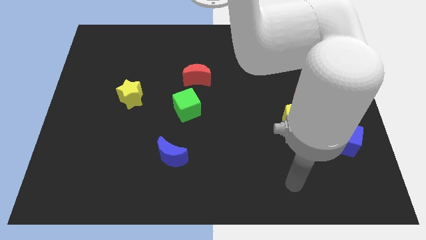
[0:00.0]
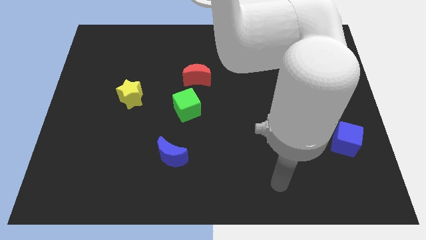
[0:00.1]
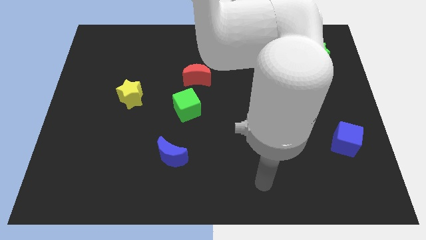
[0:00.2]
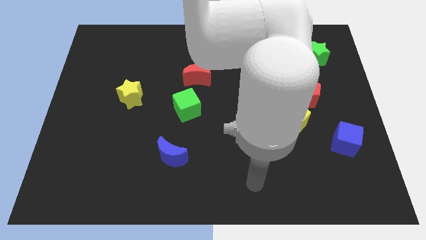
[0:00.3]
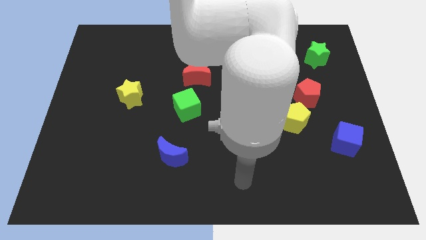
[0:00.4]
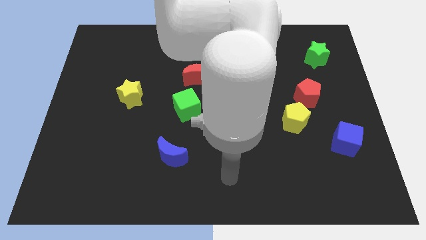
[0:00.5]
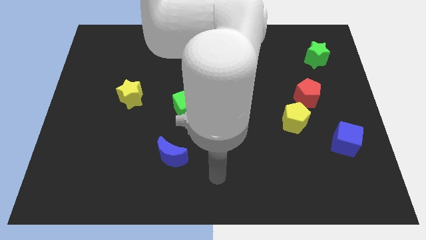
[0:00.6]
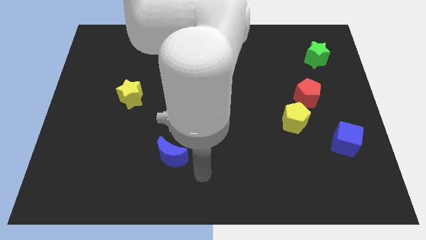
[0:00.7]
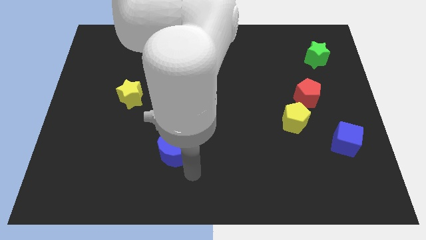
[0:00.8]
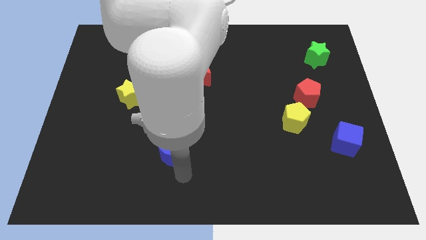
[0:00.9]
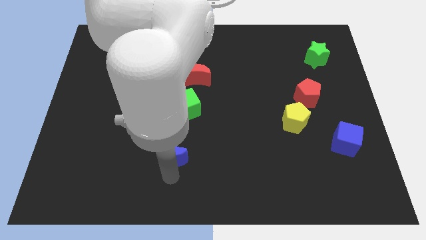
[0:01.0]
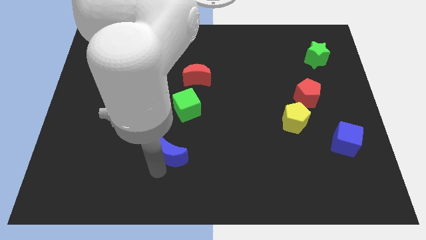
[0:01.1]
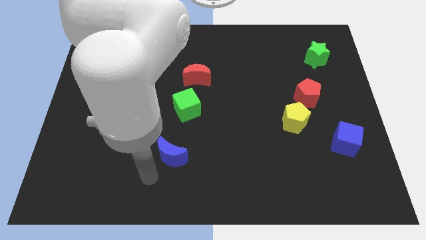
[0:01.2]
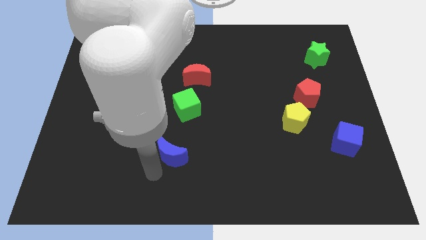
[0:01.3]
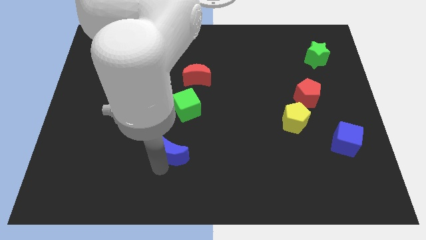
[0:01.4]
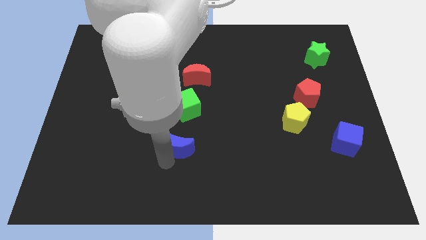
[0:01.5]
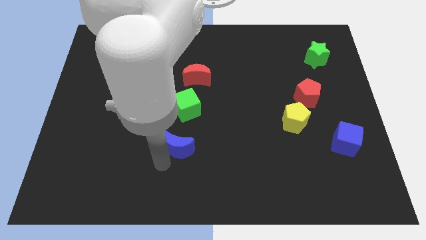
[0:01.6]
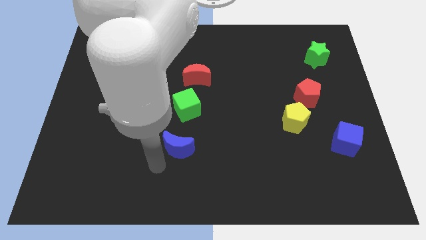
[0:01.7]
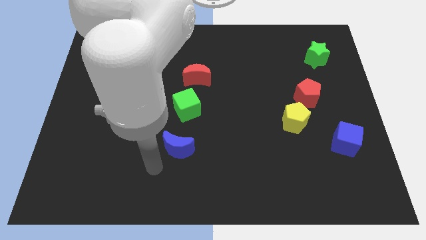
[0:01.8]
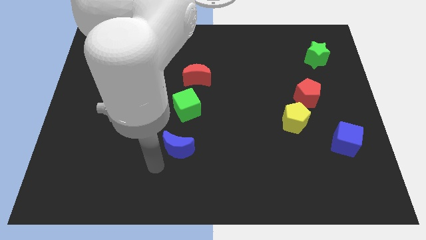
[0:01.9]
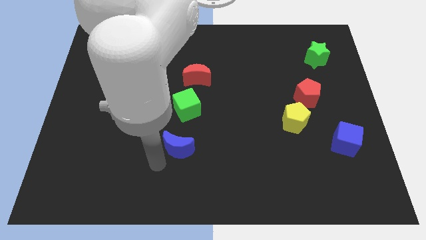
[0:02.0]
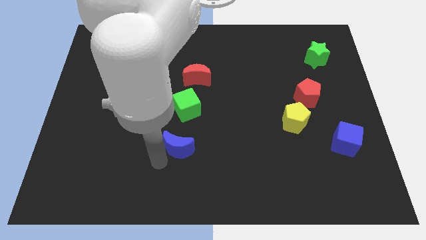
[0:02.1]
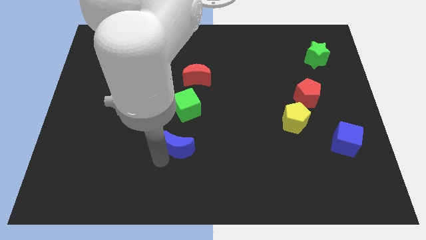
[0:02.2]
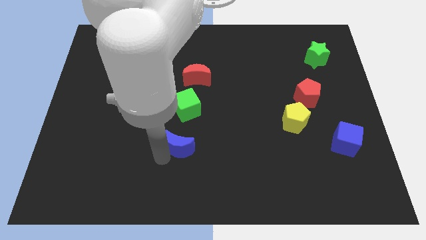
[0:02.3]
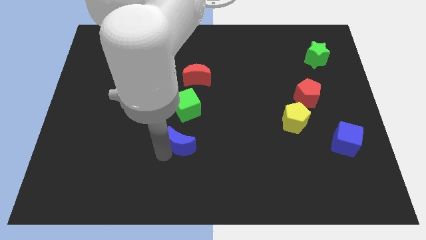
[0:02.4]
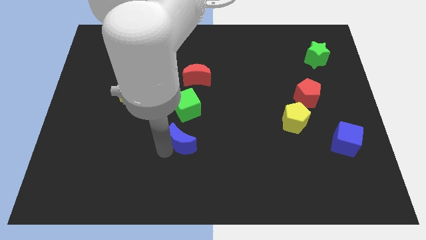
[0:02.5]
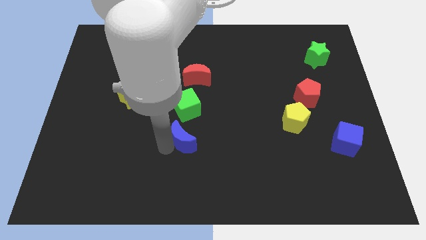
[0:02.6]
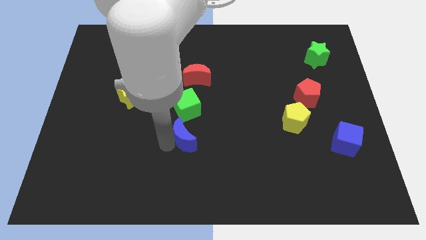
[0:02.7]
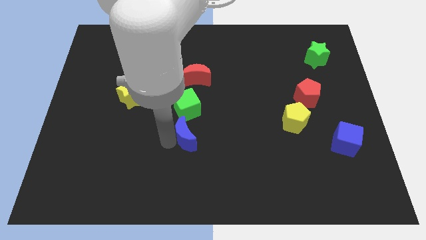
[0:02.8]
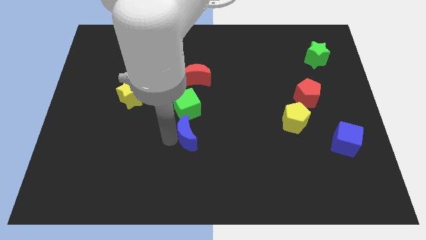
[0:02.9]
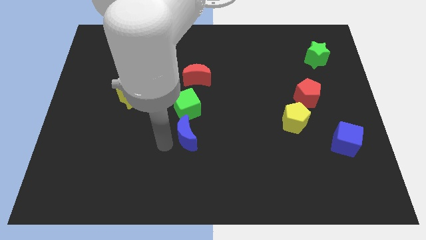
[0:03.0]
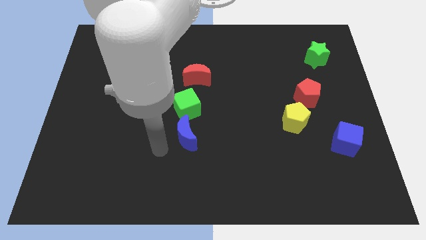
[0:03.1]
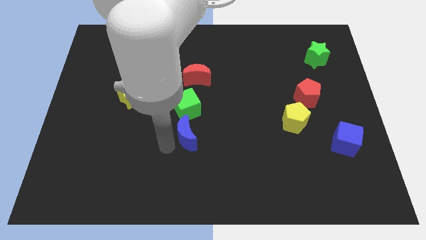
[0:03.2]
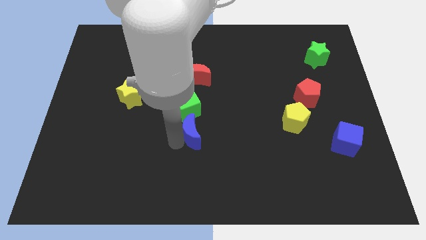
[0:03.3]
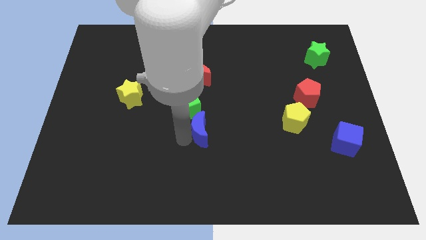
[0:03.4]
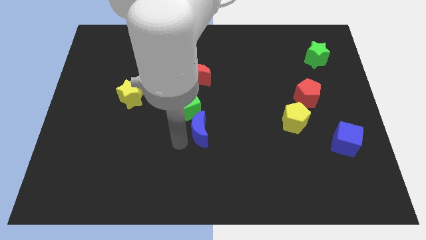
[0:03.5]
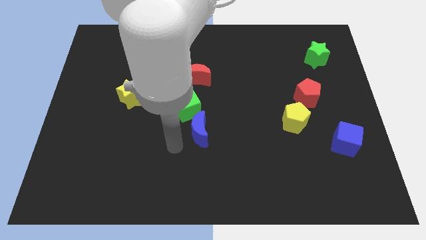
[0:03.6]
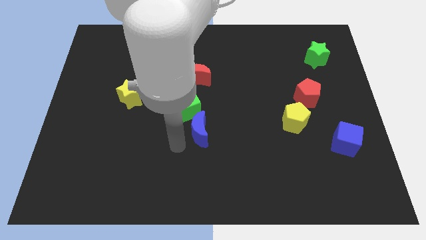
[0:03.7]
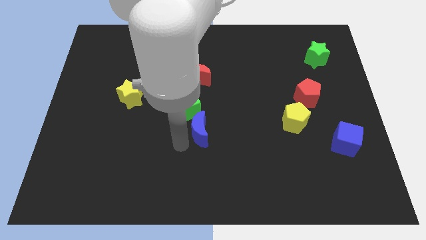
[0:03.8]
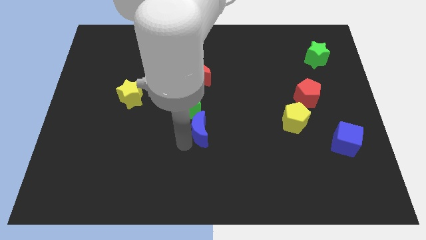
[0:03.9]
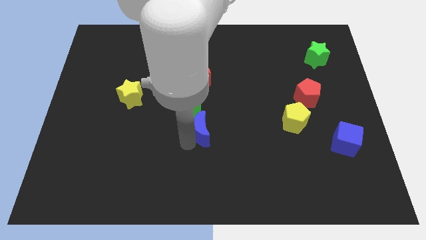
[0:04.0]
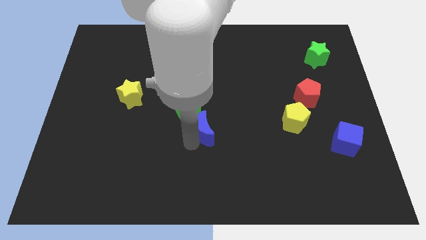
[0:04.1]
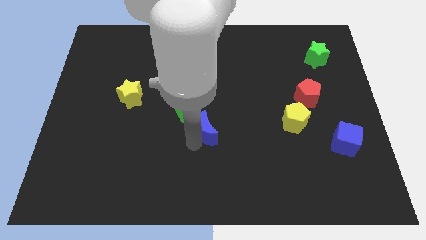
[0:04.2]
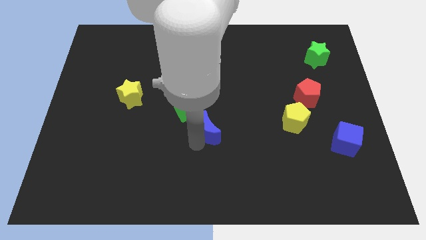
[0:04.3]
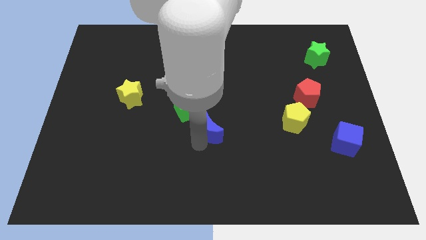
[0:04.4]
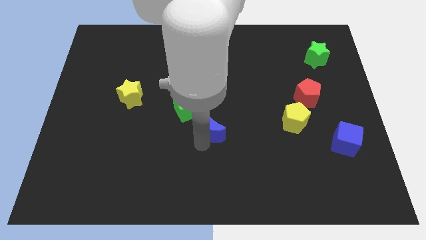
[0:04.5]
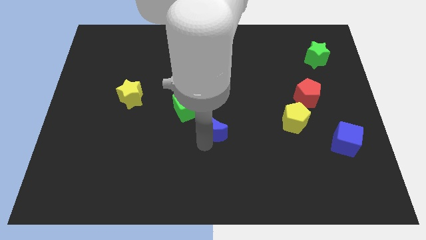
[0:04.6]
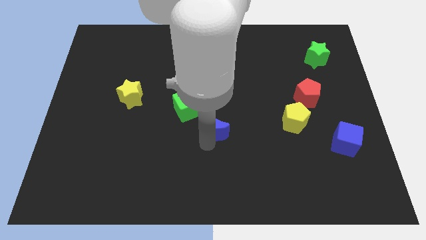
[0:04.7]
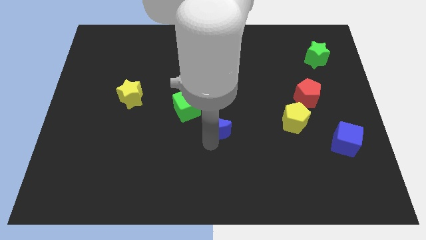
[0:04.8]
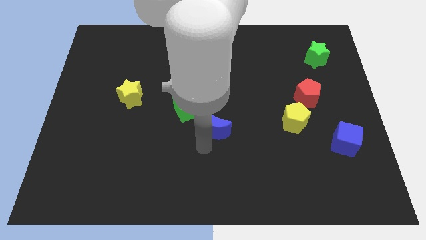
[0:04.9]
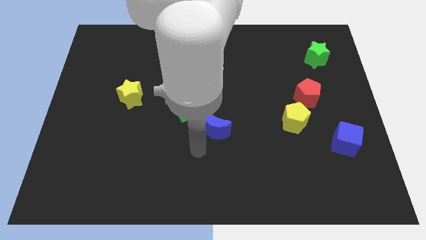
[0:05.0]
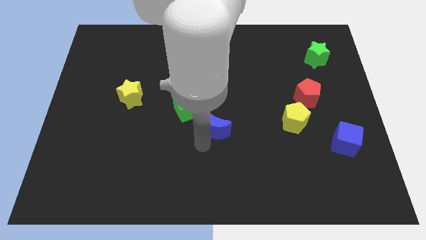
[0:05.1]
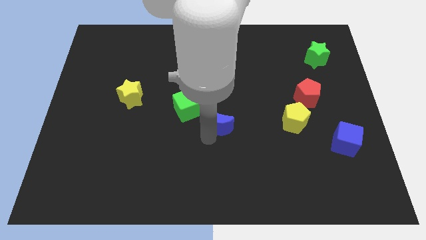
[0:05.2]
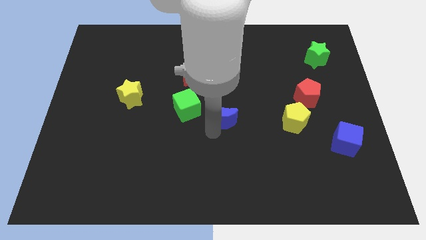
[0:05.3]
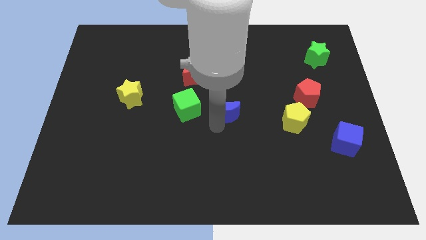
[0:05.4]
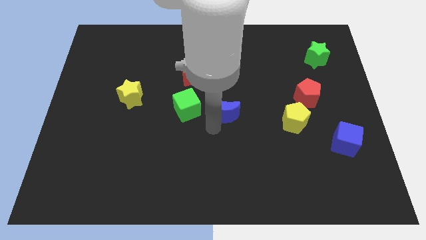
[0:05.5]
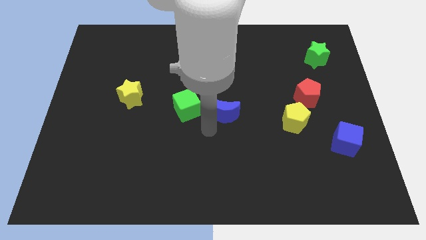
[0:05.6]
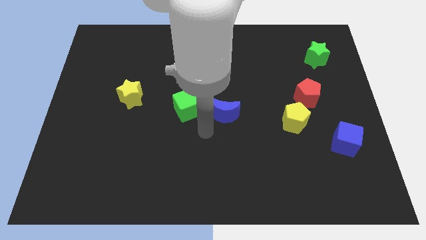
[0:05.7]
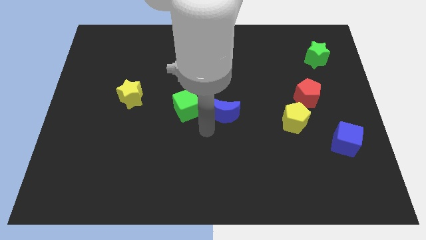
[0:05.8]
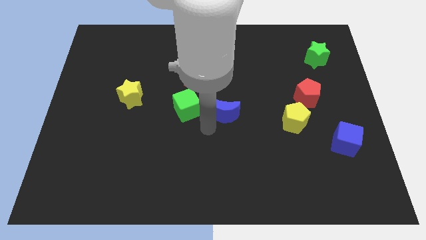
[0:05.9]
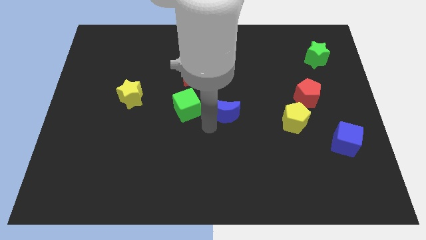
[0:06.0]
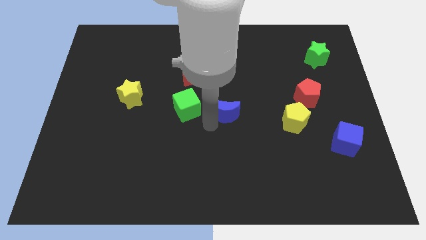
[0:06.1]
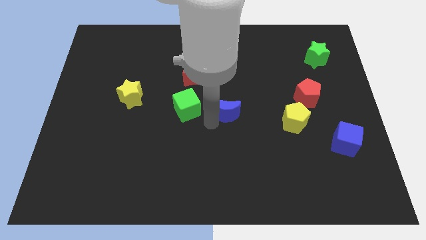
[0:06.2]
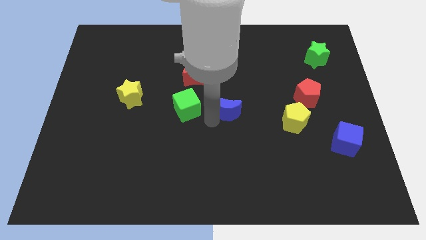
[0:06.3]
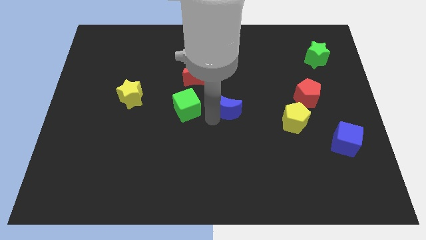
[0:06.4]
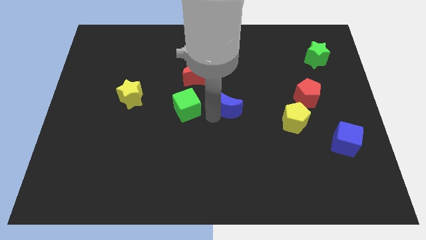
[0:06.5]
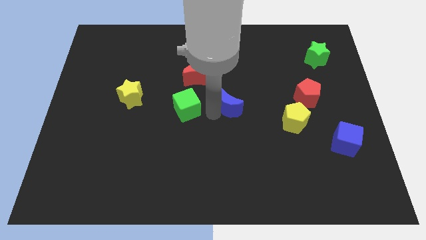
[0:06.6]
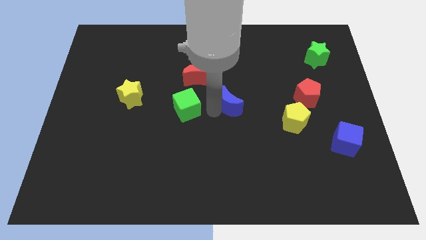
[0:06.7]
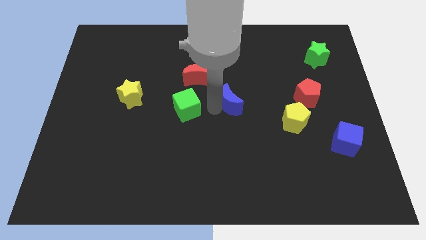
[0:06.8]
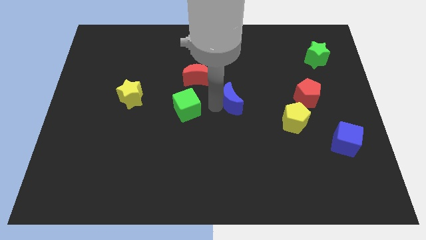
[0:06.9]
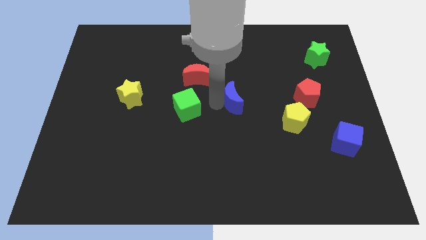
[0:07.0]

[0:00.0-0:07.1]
push the blue moon upwards and then to the right

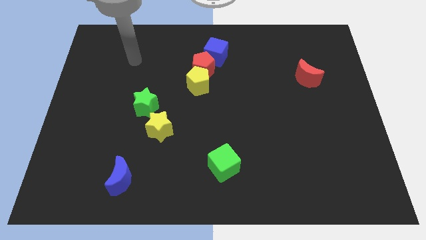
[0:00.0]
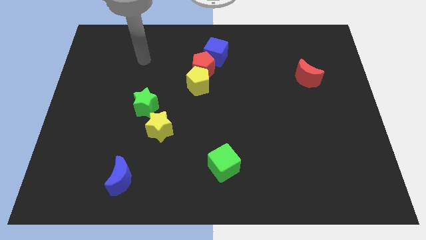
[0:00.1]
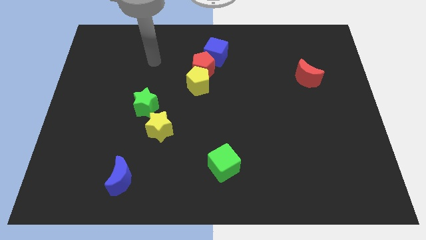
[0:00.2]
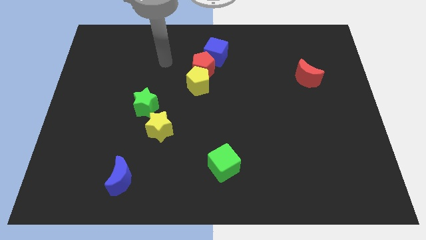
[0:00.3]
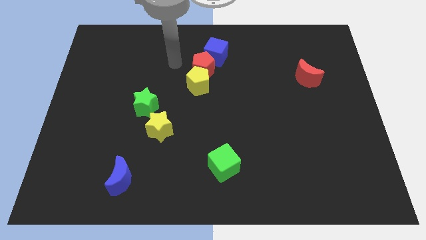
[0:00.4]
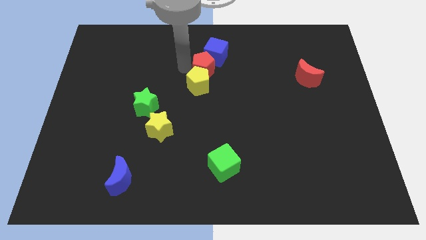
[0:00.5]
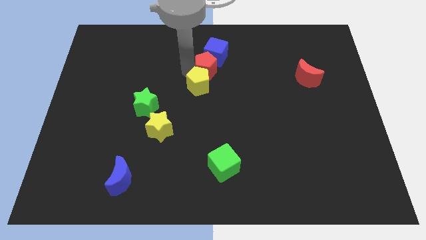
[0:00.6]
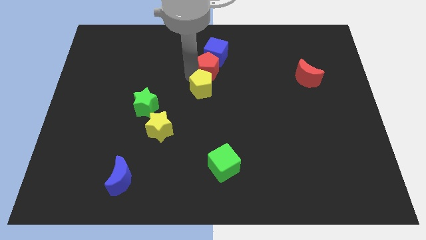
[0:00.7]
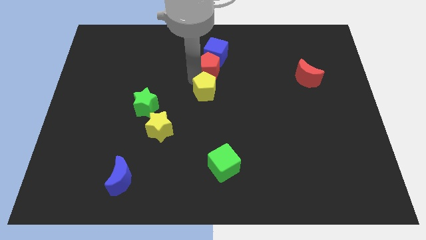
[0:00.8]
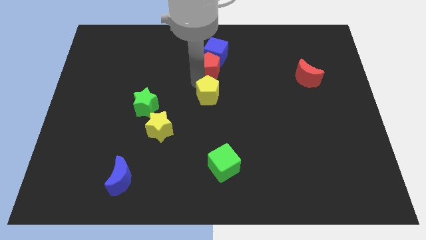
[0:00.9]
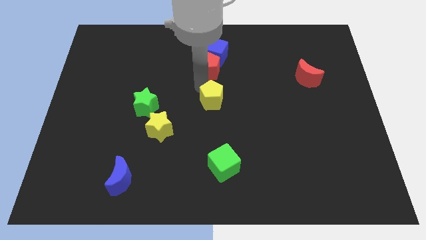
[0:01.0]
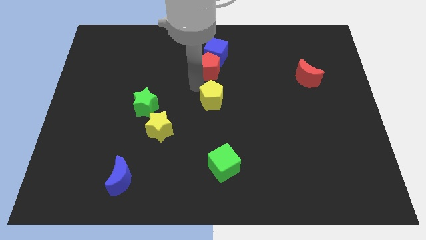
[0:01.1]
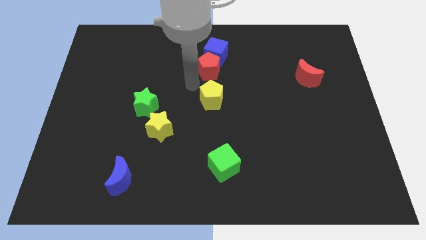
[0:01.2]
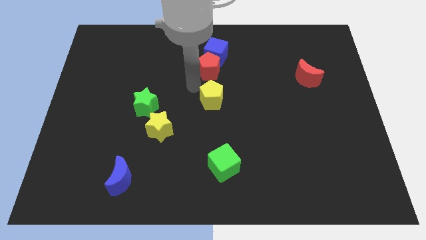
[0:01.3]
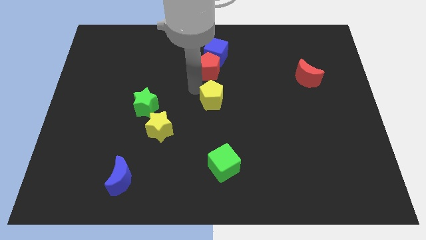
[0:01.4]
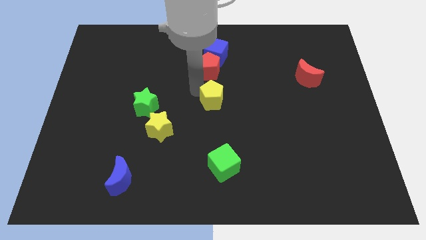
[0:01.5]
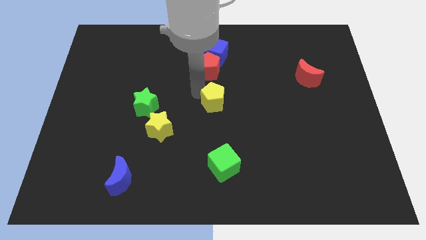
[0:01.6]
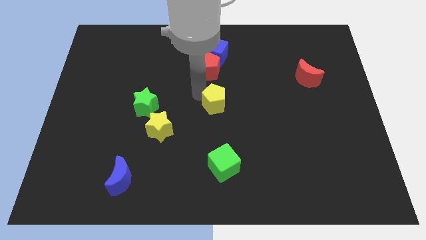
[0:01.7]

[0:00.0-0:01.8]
move the yellow pentagon a bit downwards and to the right
